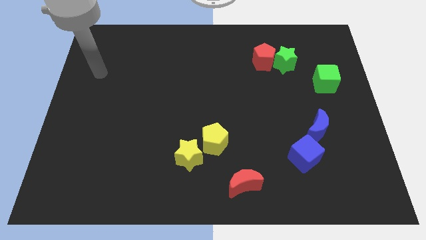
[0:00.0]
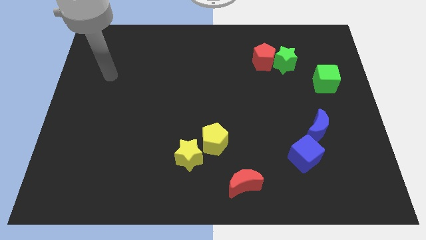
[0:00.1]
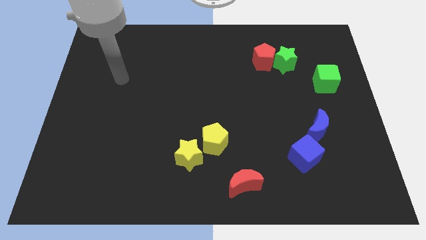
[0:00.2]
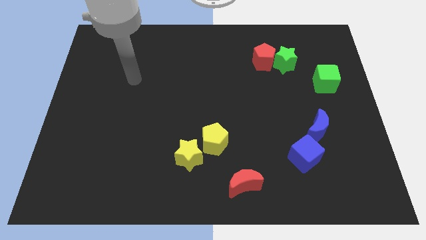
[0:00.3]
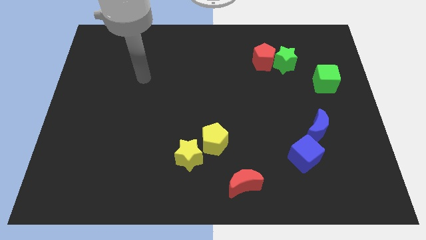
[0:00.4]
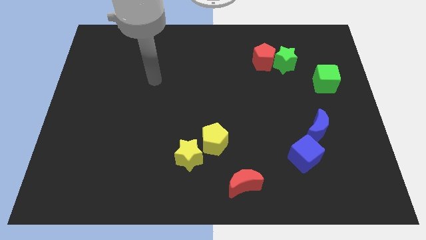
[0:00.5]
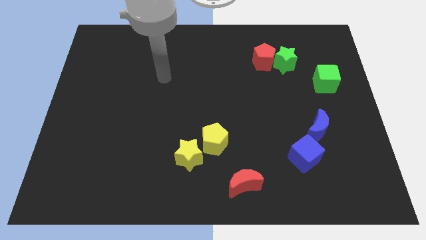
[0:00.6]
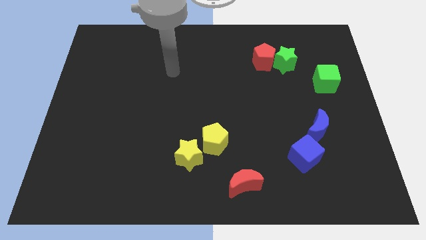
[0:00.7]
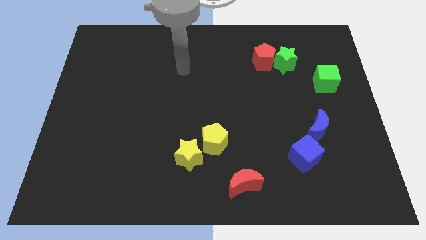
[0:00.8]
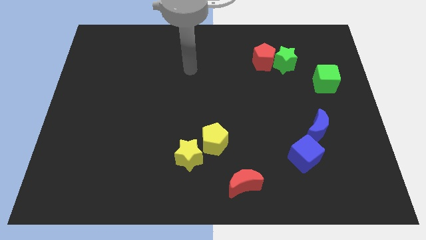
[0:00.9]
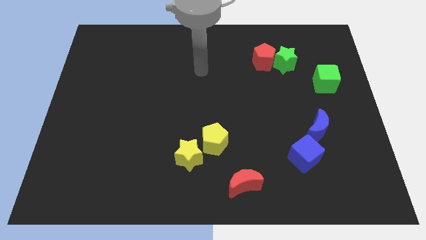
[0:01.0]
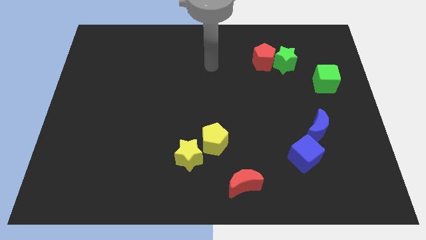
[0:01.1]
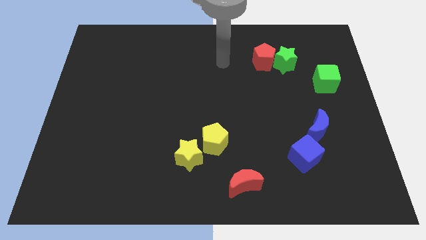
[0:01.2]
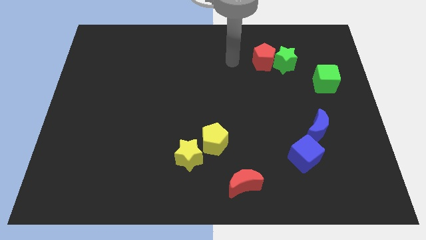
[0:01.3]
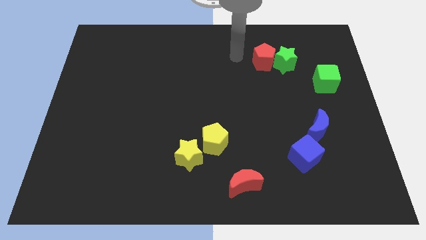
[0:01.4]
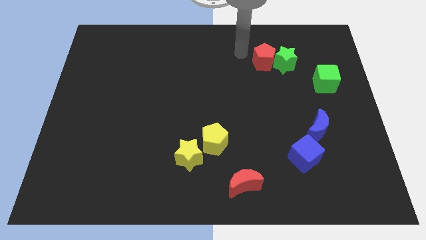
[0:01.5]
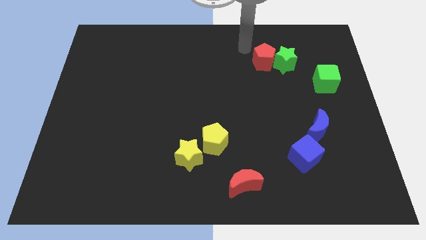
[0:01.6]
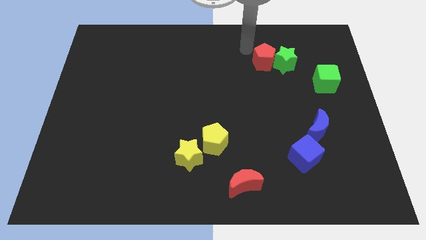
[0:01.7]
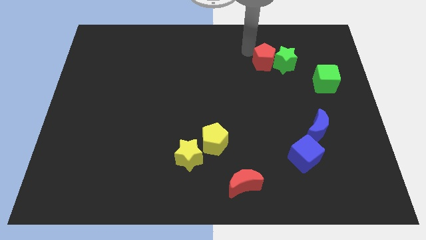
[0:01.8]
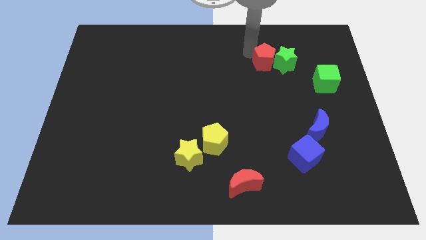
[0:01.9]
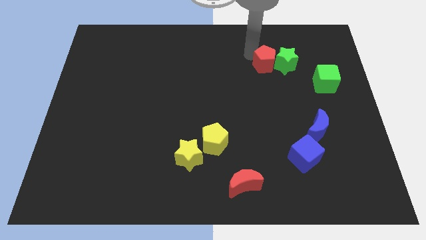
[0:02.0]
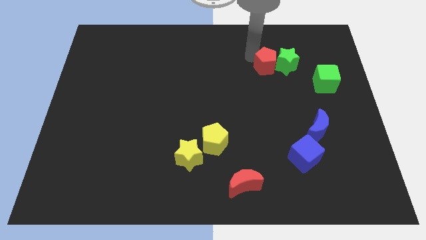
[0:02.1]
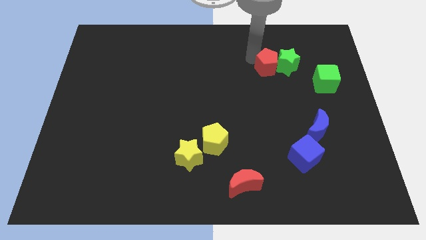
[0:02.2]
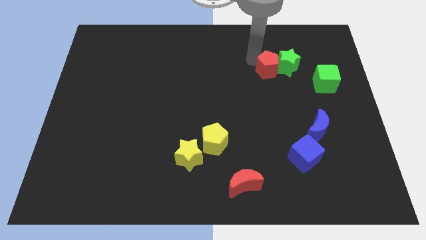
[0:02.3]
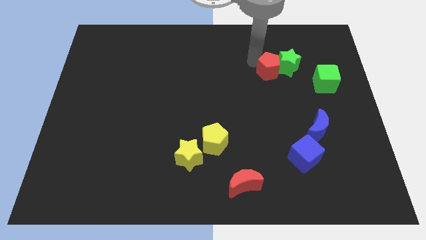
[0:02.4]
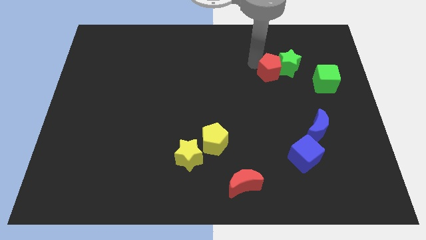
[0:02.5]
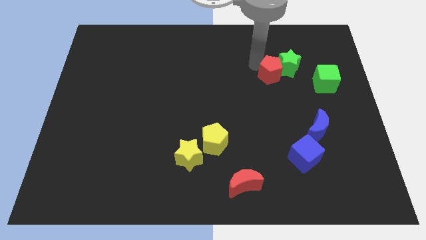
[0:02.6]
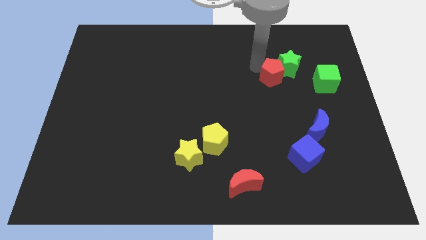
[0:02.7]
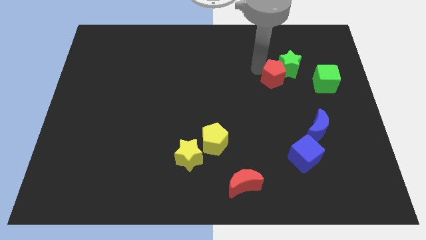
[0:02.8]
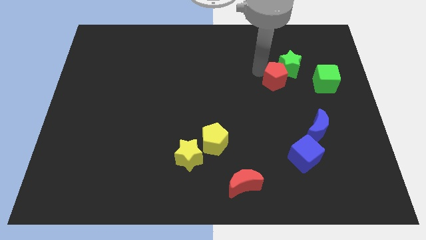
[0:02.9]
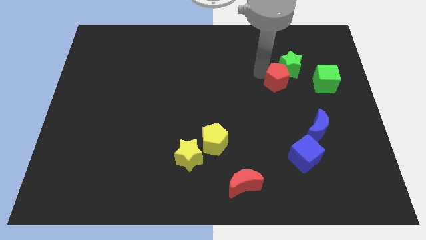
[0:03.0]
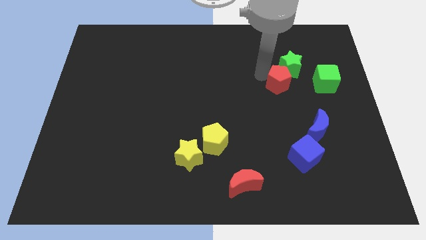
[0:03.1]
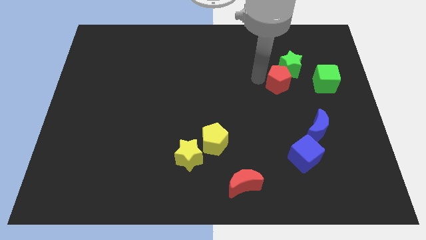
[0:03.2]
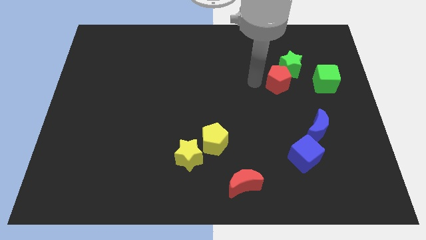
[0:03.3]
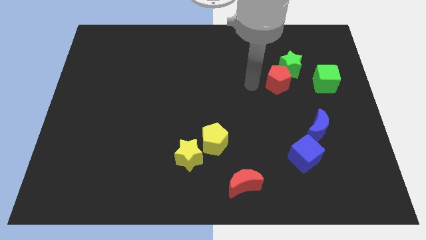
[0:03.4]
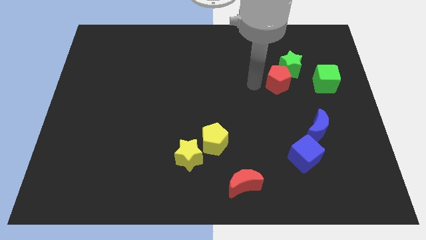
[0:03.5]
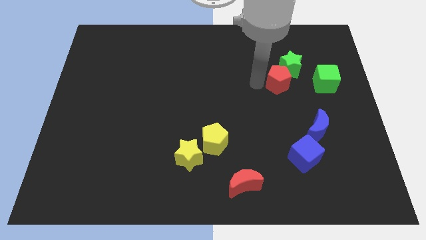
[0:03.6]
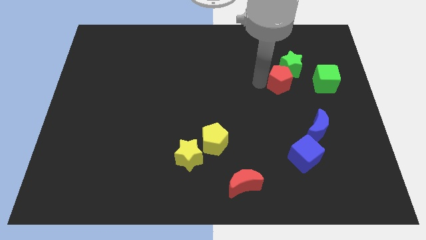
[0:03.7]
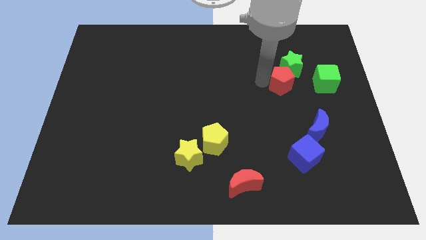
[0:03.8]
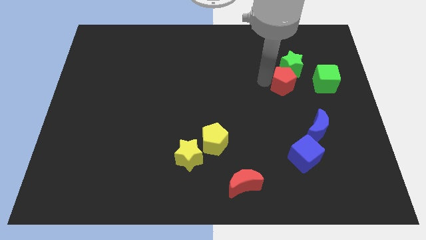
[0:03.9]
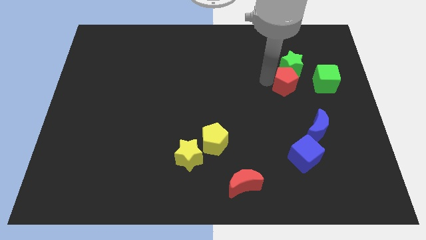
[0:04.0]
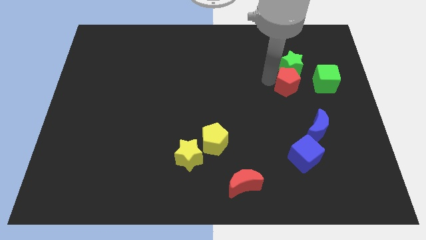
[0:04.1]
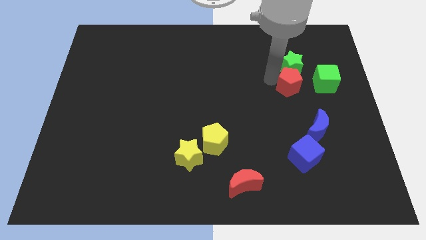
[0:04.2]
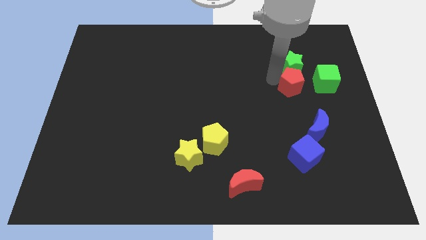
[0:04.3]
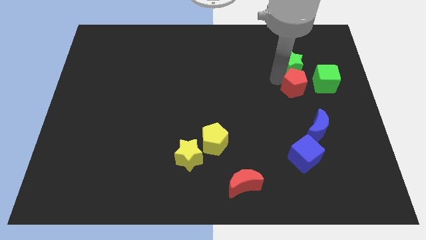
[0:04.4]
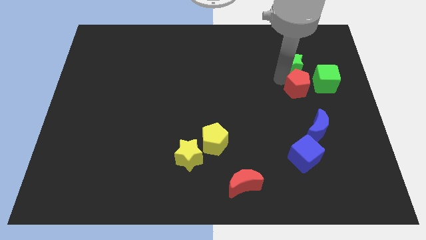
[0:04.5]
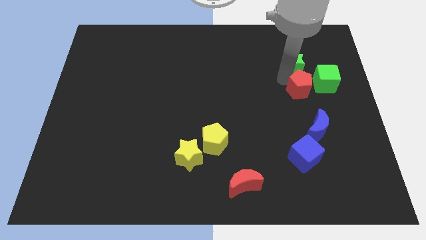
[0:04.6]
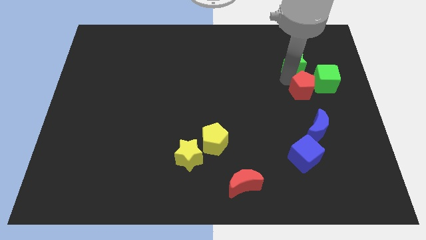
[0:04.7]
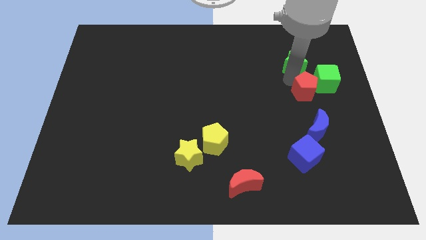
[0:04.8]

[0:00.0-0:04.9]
move the red pentagon to the green cube

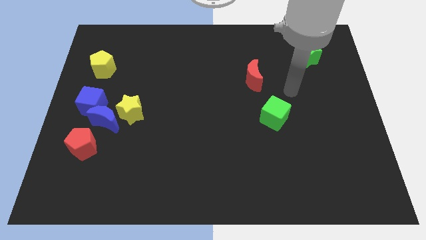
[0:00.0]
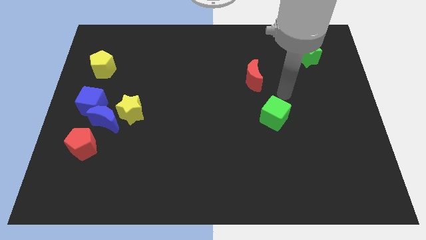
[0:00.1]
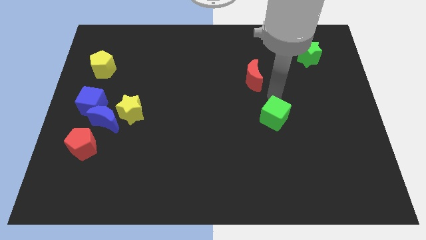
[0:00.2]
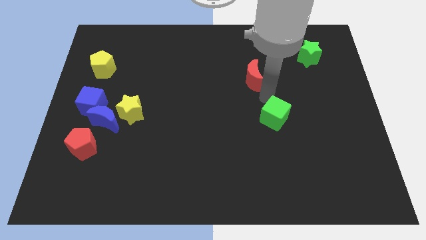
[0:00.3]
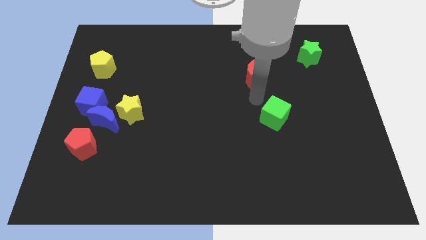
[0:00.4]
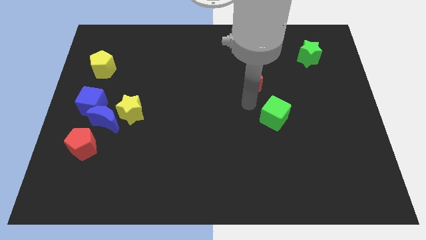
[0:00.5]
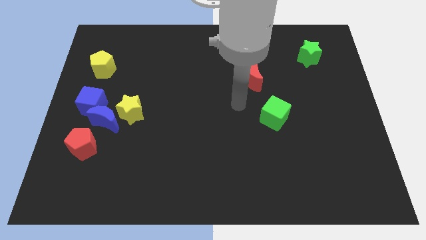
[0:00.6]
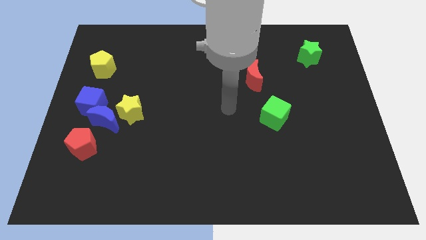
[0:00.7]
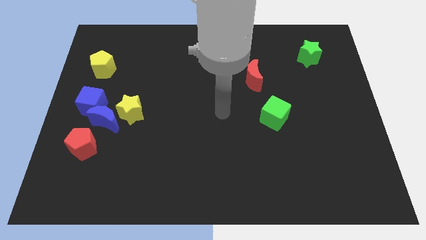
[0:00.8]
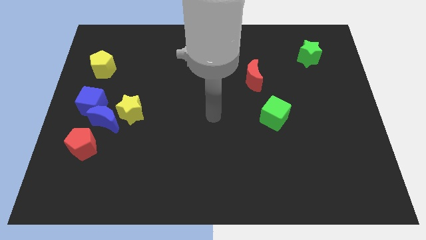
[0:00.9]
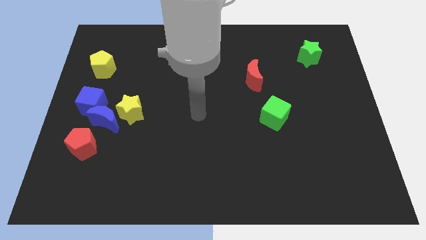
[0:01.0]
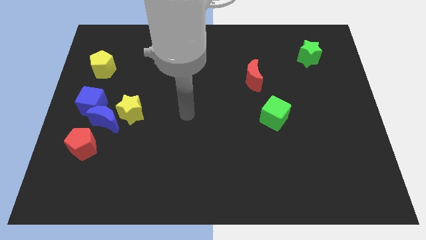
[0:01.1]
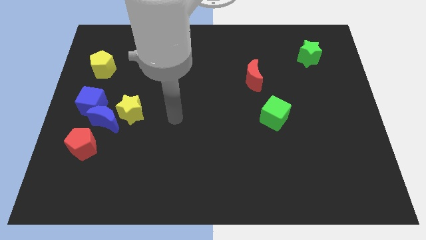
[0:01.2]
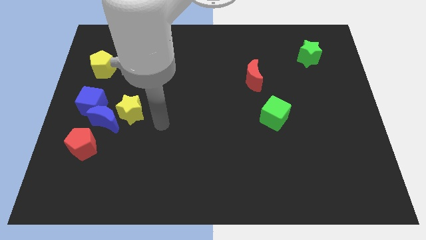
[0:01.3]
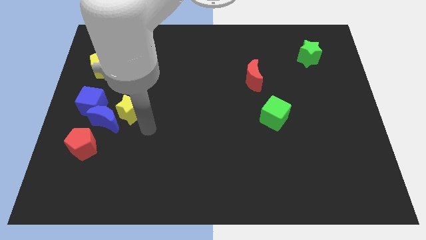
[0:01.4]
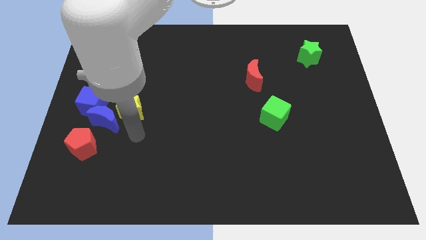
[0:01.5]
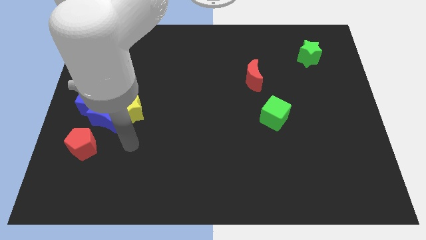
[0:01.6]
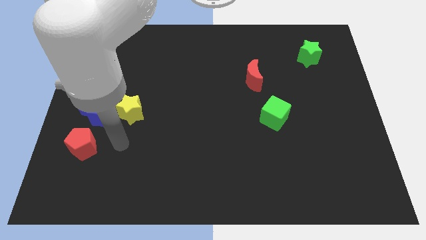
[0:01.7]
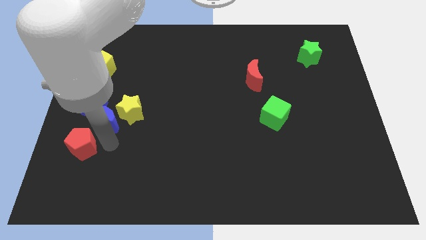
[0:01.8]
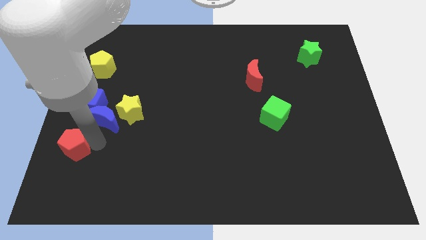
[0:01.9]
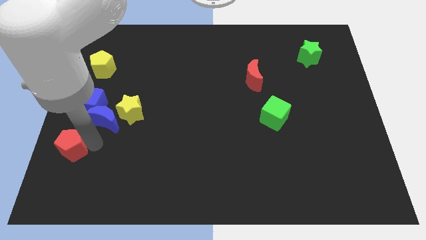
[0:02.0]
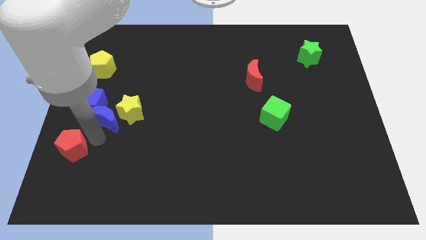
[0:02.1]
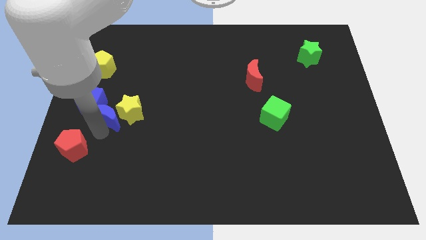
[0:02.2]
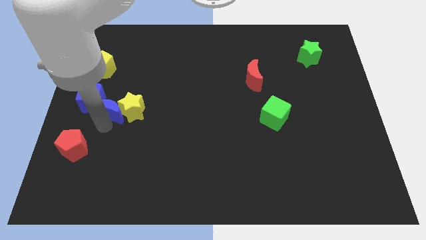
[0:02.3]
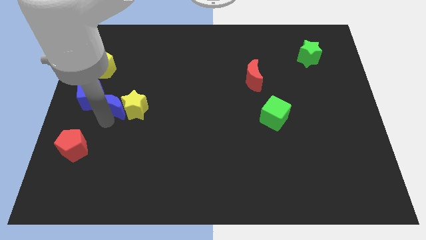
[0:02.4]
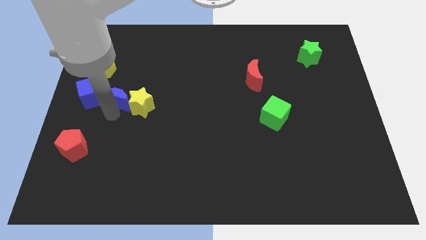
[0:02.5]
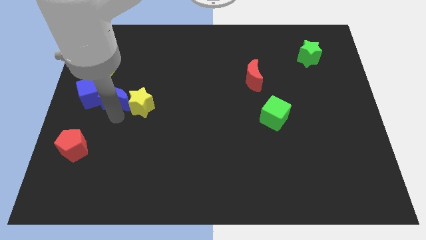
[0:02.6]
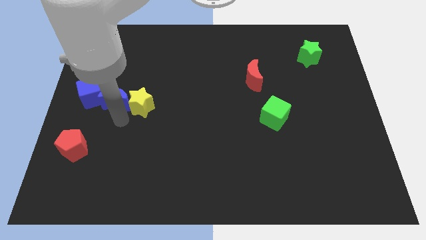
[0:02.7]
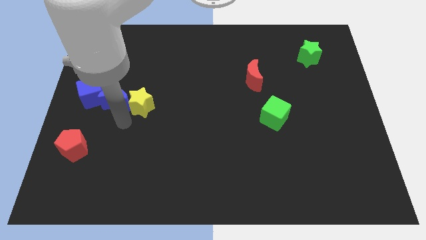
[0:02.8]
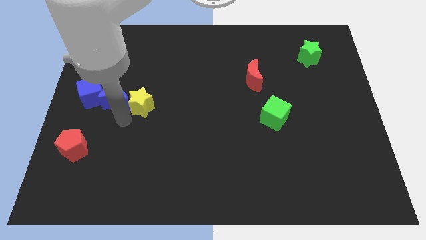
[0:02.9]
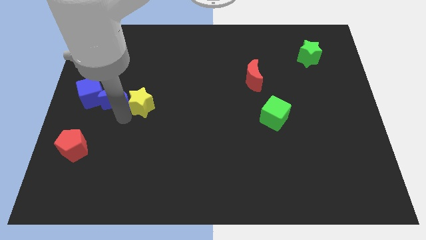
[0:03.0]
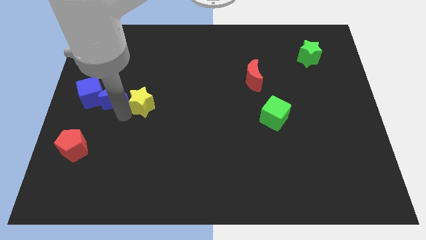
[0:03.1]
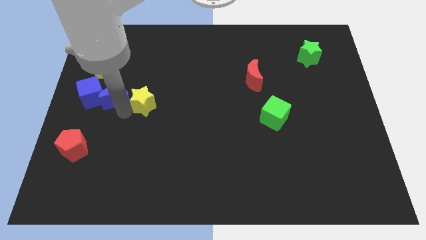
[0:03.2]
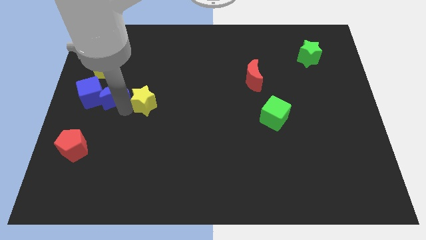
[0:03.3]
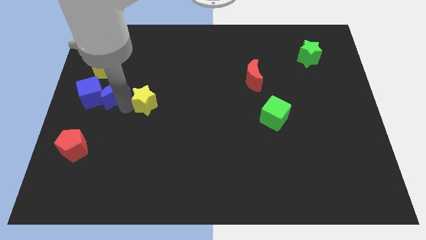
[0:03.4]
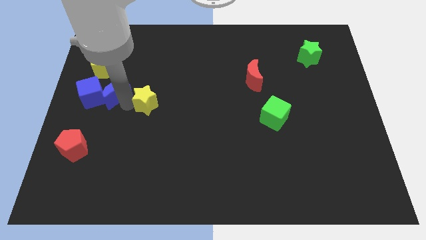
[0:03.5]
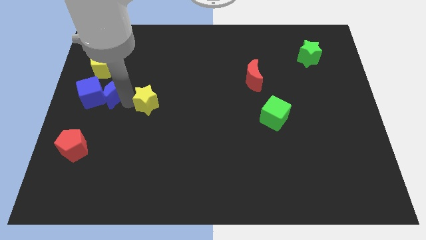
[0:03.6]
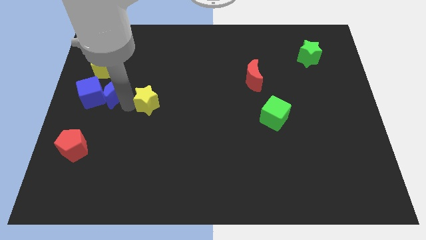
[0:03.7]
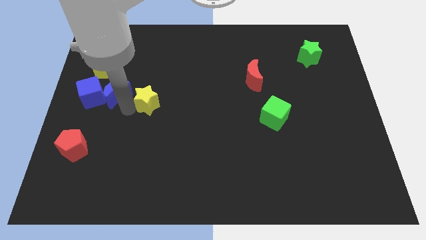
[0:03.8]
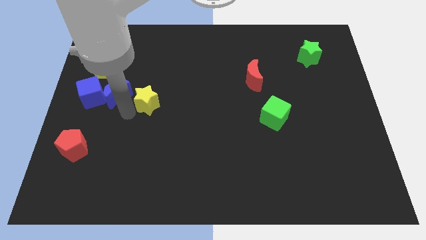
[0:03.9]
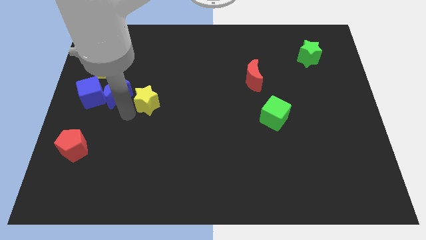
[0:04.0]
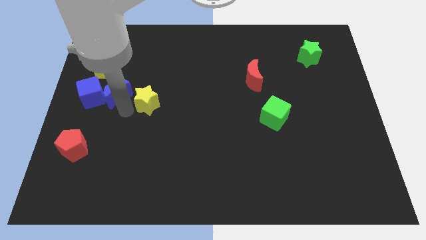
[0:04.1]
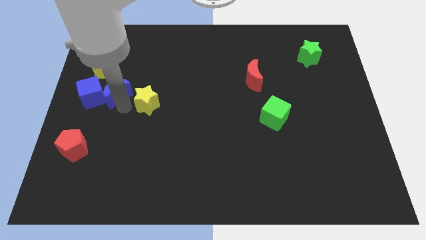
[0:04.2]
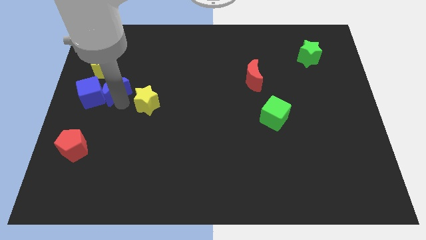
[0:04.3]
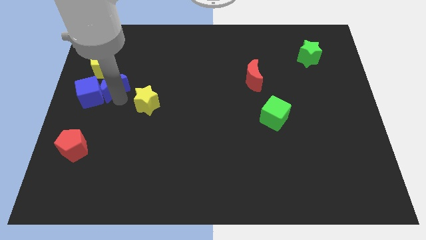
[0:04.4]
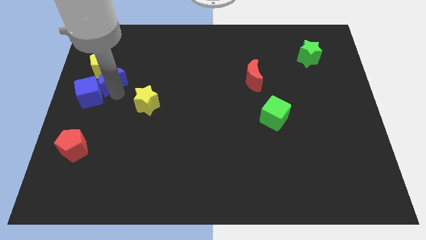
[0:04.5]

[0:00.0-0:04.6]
slide the blue moon next to the yellow pentagon
